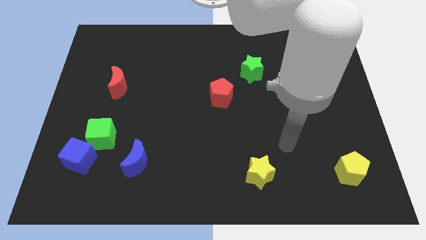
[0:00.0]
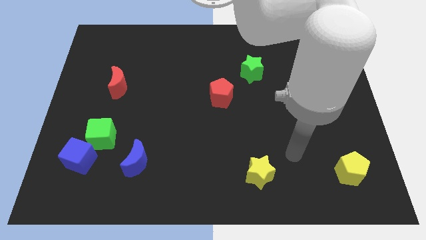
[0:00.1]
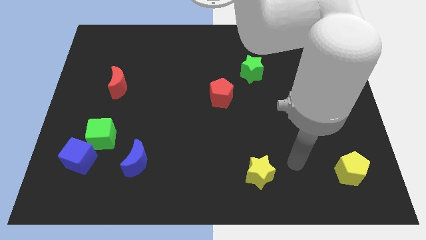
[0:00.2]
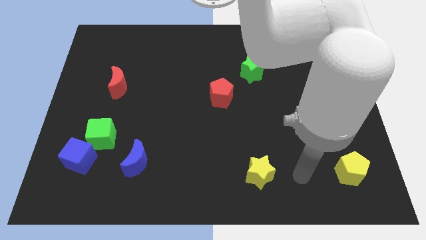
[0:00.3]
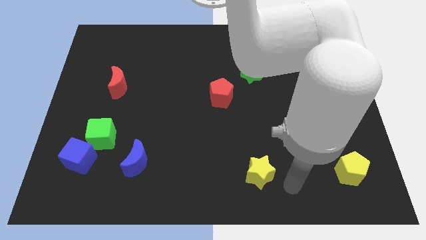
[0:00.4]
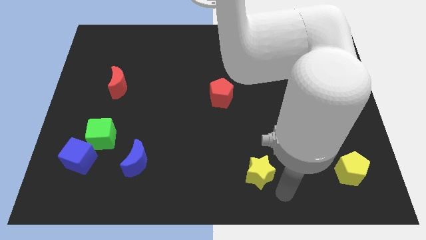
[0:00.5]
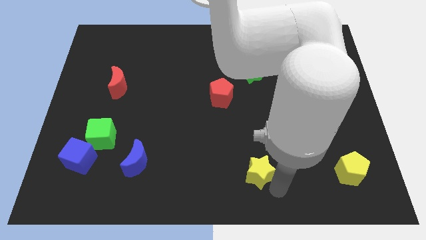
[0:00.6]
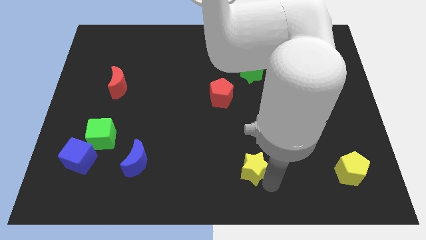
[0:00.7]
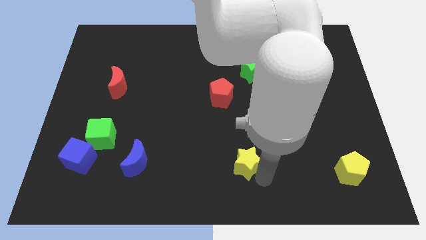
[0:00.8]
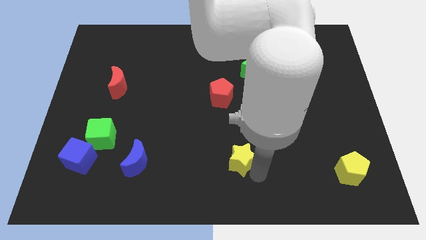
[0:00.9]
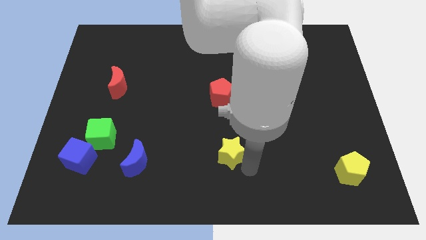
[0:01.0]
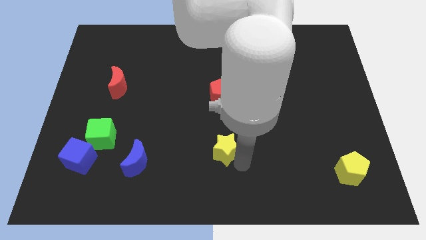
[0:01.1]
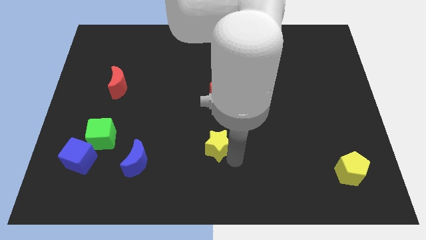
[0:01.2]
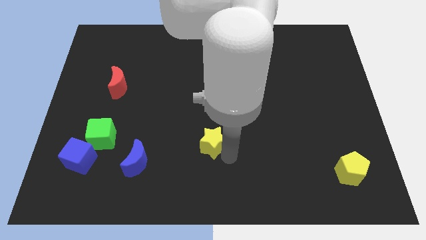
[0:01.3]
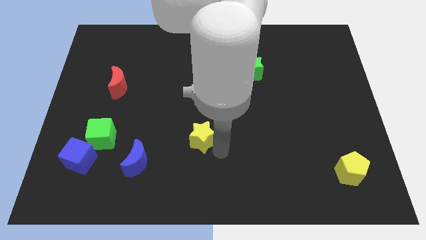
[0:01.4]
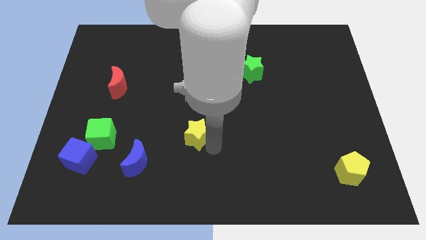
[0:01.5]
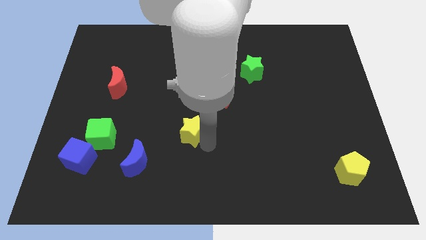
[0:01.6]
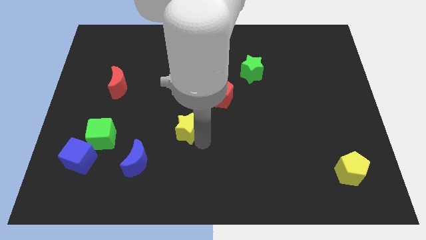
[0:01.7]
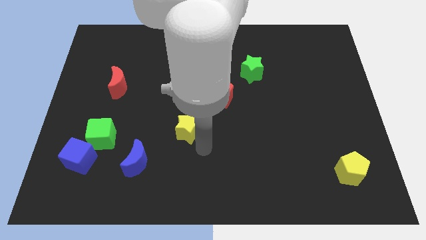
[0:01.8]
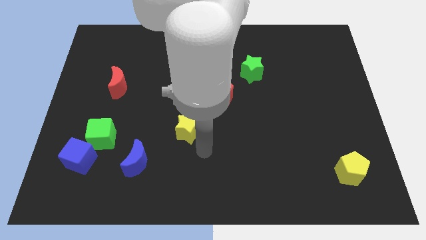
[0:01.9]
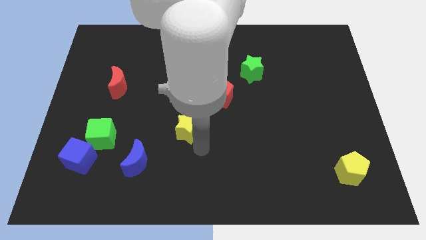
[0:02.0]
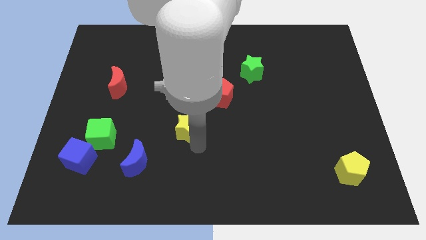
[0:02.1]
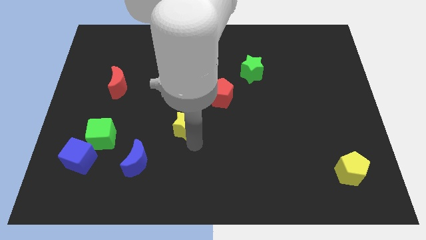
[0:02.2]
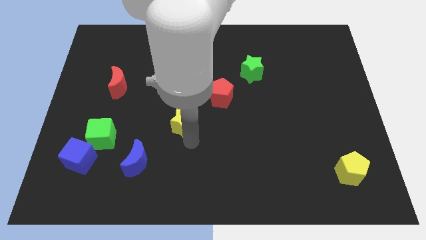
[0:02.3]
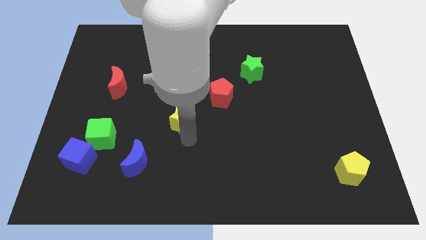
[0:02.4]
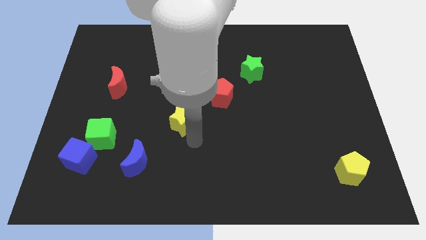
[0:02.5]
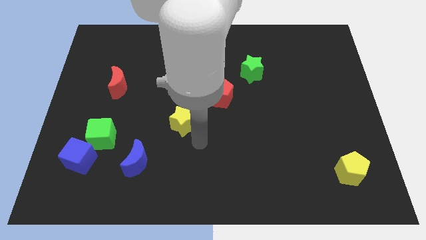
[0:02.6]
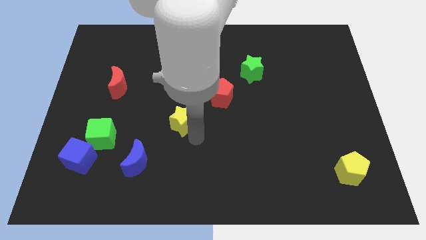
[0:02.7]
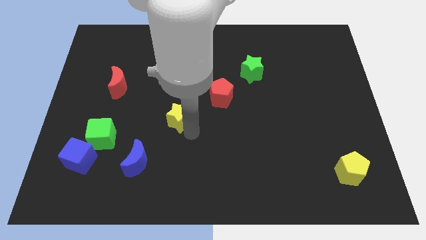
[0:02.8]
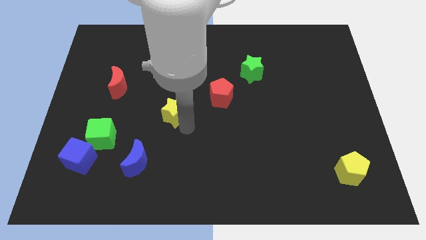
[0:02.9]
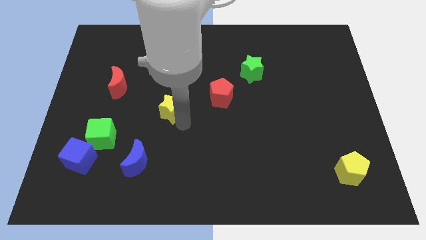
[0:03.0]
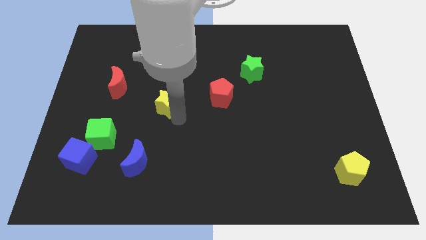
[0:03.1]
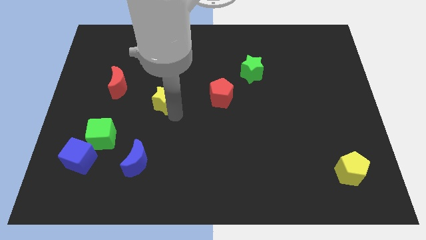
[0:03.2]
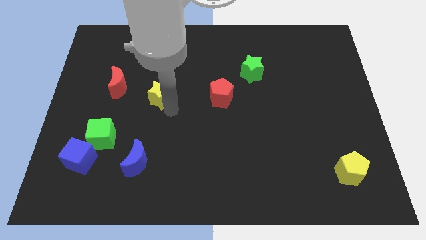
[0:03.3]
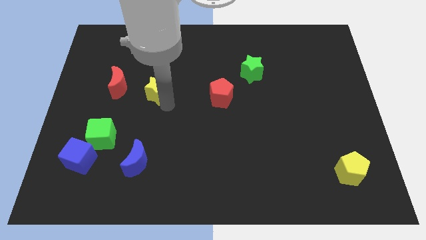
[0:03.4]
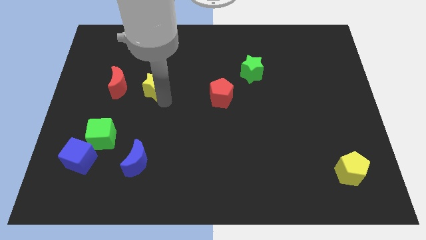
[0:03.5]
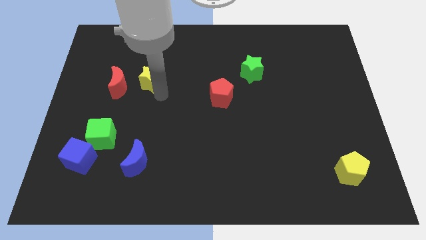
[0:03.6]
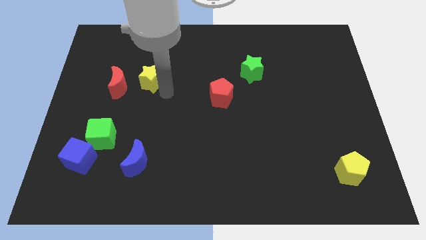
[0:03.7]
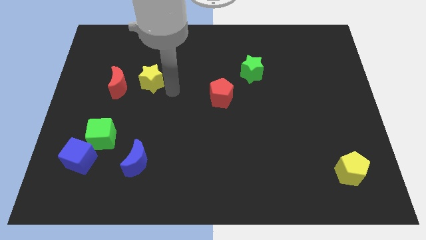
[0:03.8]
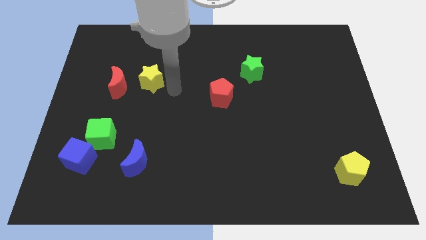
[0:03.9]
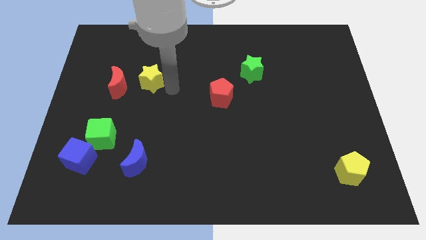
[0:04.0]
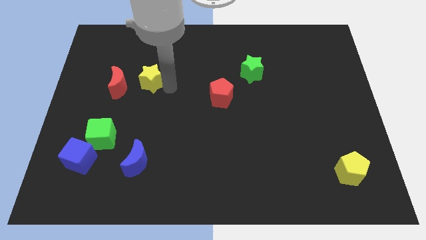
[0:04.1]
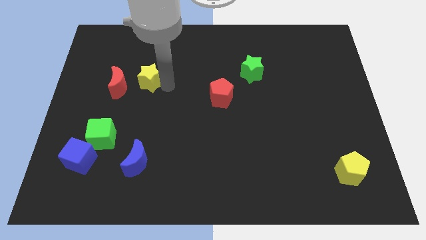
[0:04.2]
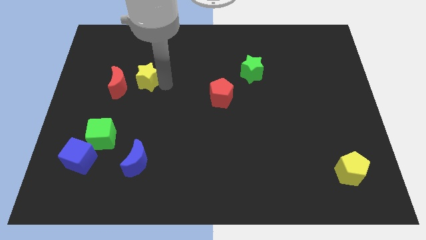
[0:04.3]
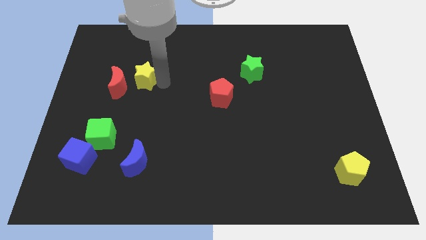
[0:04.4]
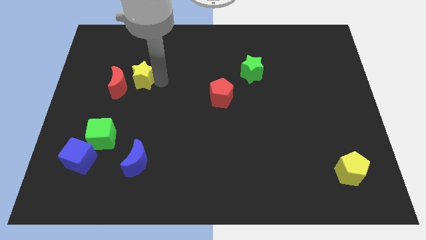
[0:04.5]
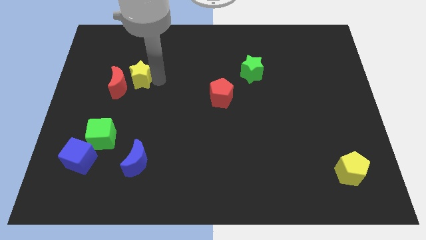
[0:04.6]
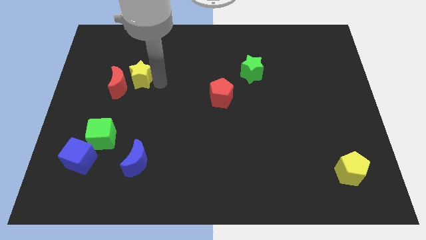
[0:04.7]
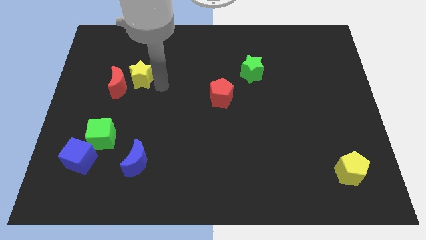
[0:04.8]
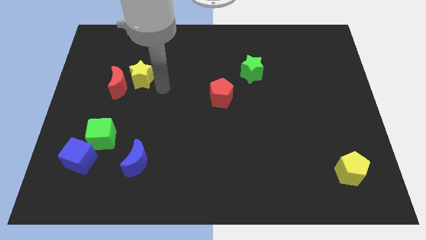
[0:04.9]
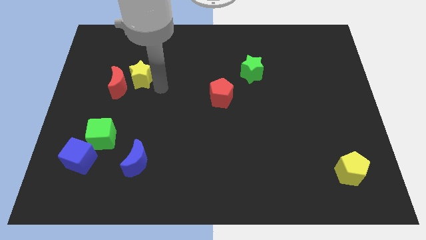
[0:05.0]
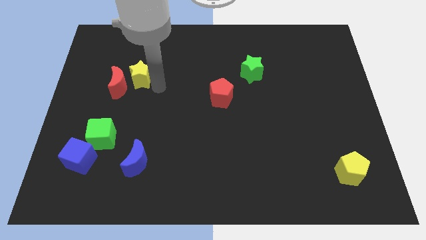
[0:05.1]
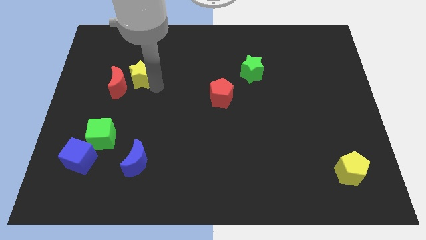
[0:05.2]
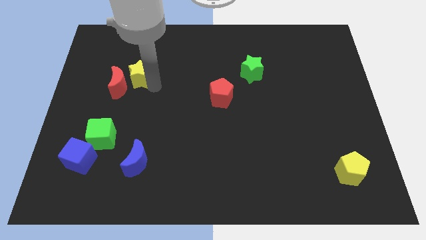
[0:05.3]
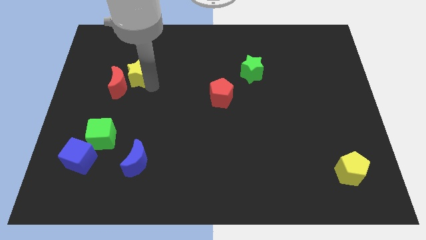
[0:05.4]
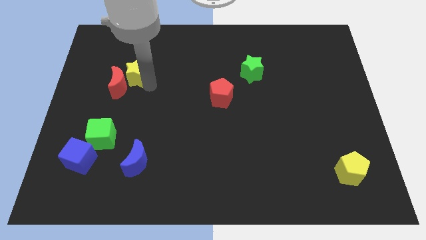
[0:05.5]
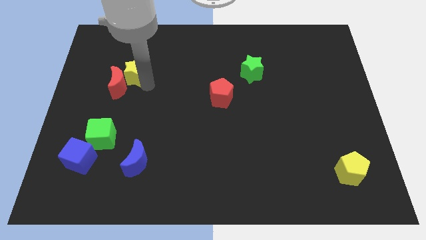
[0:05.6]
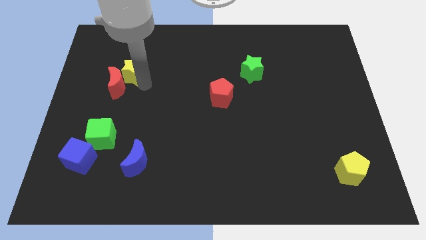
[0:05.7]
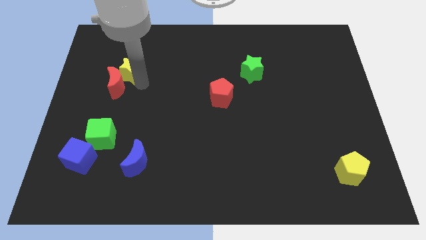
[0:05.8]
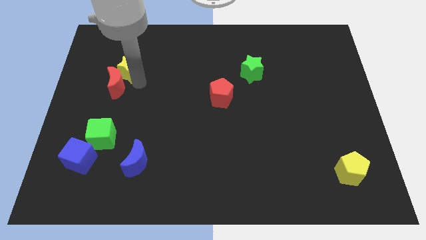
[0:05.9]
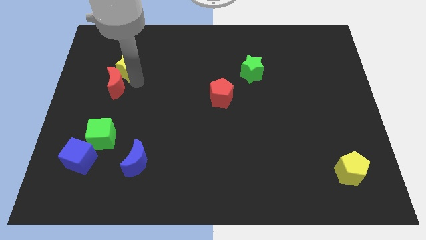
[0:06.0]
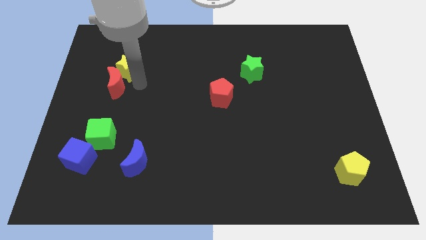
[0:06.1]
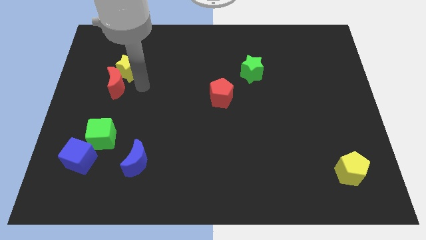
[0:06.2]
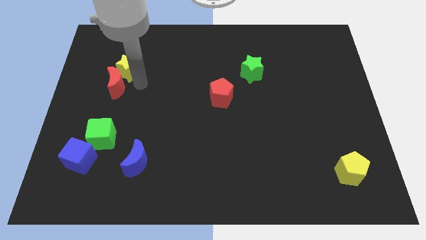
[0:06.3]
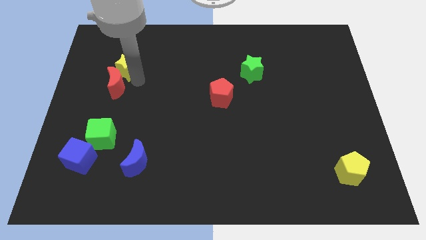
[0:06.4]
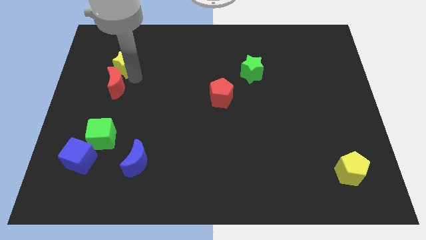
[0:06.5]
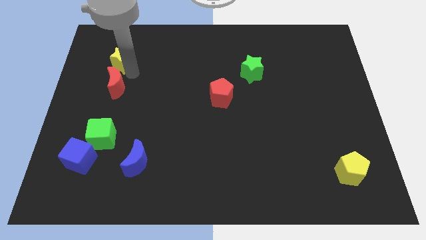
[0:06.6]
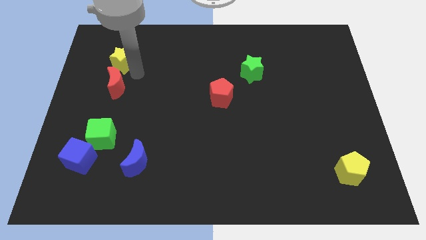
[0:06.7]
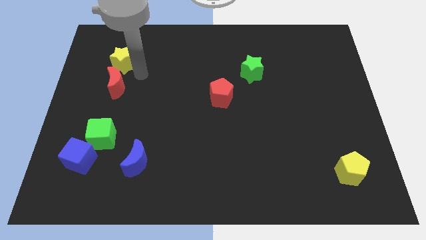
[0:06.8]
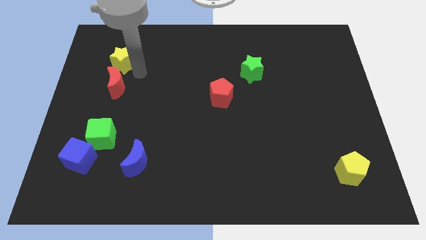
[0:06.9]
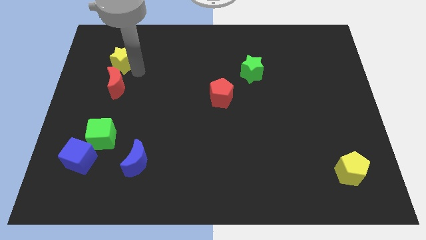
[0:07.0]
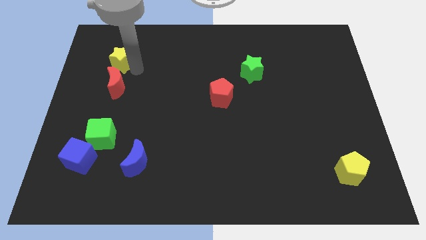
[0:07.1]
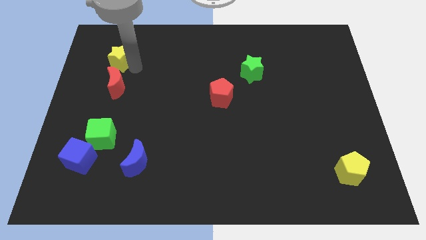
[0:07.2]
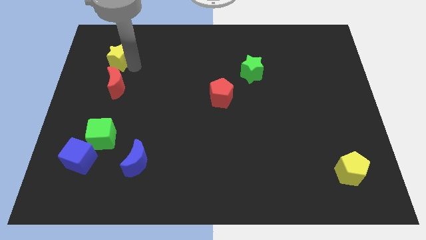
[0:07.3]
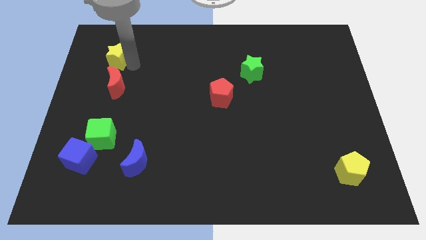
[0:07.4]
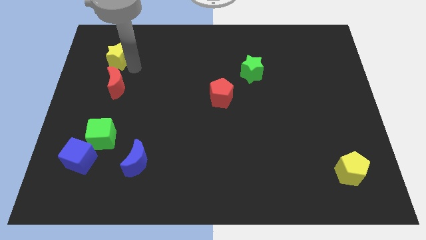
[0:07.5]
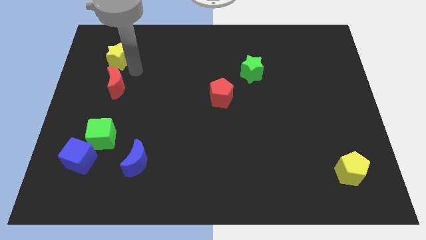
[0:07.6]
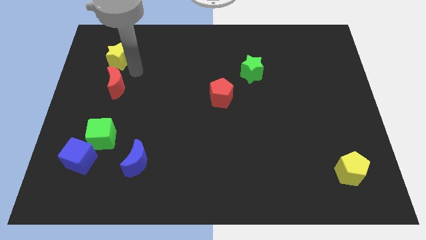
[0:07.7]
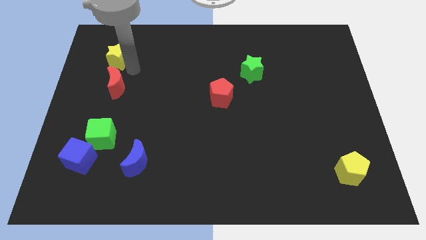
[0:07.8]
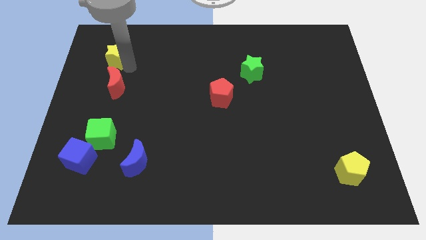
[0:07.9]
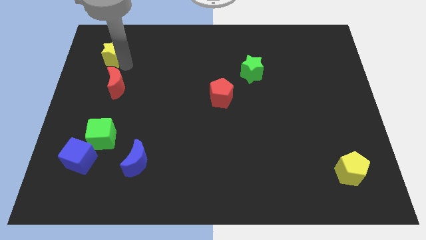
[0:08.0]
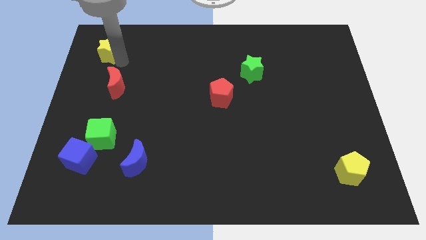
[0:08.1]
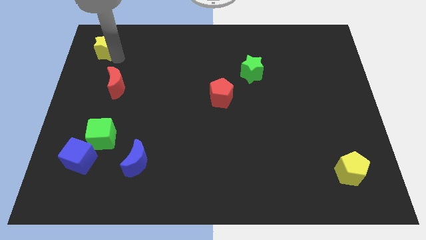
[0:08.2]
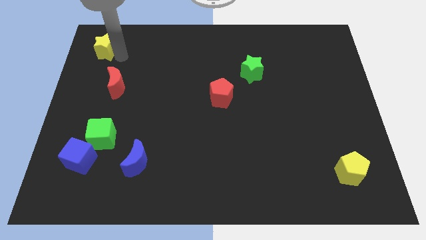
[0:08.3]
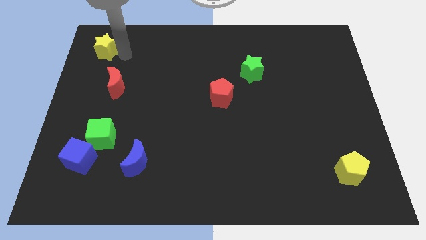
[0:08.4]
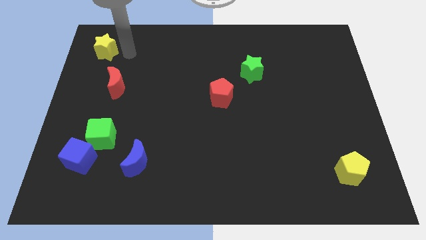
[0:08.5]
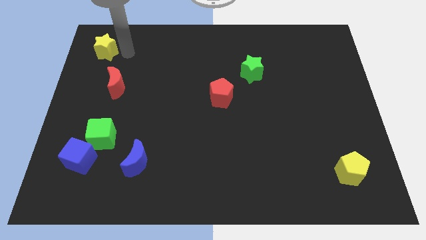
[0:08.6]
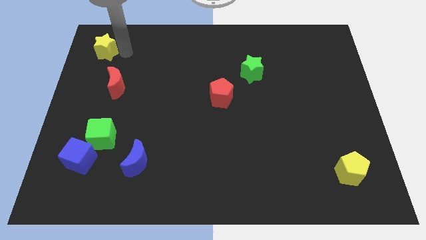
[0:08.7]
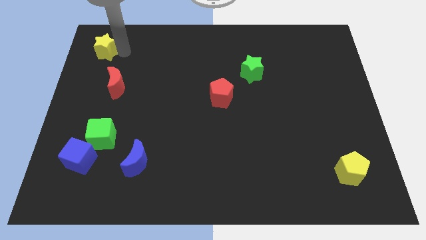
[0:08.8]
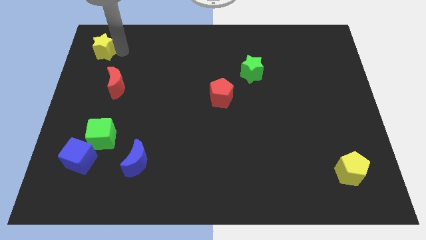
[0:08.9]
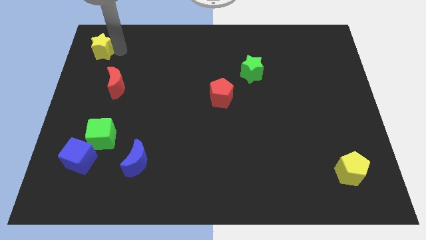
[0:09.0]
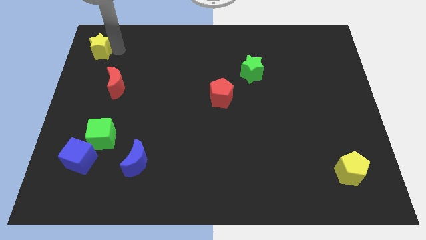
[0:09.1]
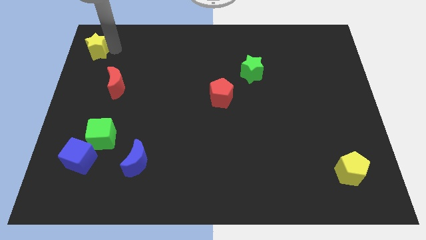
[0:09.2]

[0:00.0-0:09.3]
move the yellow star to the top left
